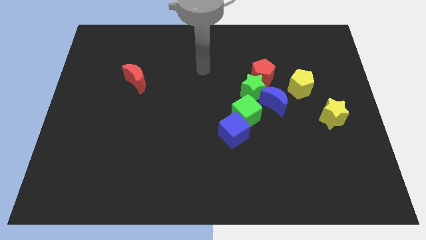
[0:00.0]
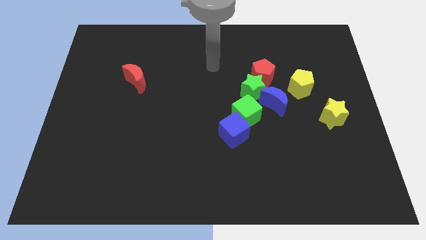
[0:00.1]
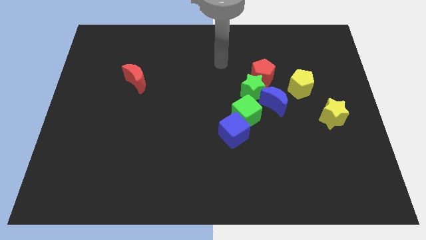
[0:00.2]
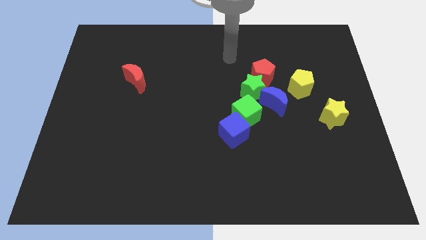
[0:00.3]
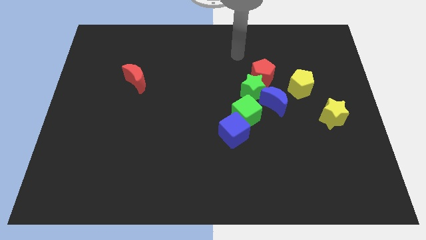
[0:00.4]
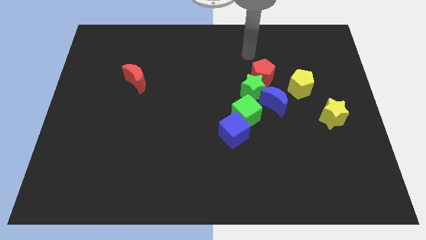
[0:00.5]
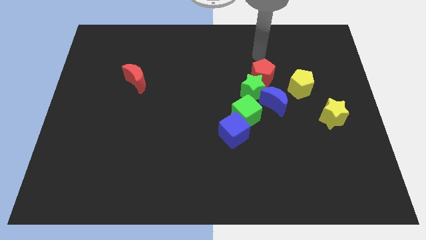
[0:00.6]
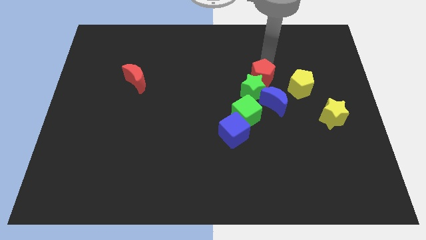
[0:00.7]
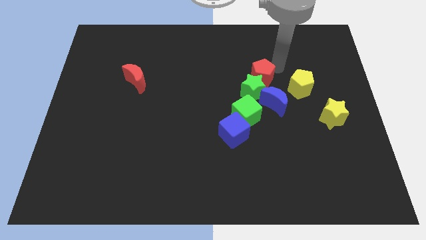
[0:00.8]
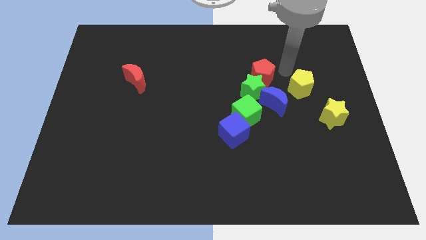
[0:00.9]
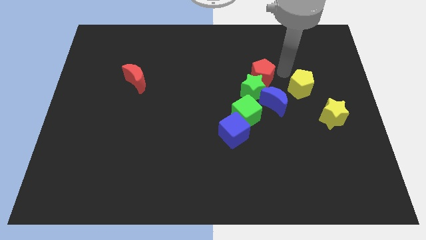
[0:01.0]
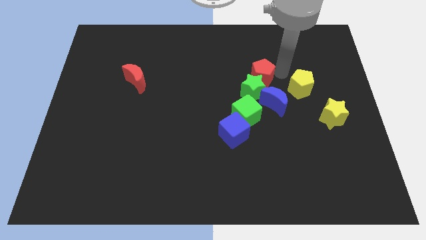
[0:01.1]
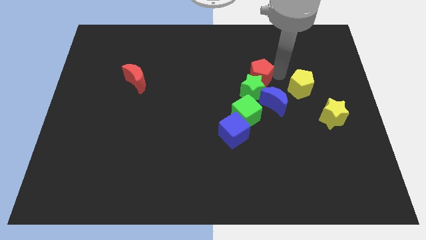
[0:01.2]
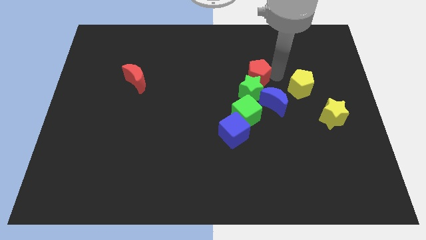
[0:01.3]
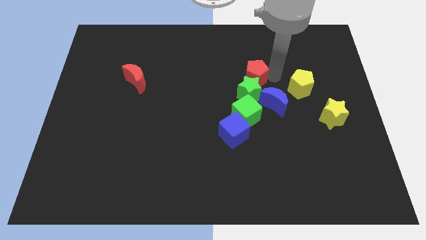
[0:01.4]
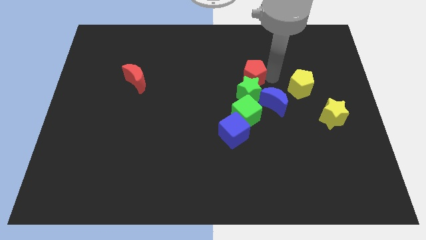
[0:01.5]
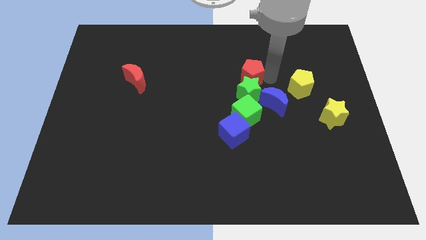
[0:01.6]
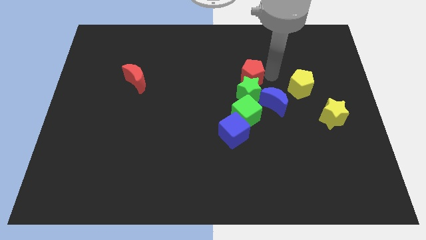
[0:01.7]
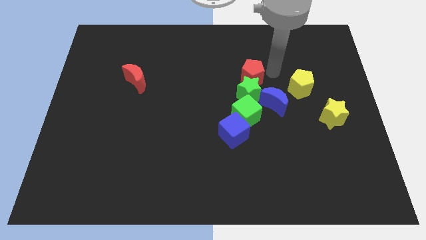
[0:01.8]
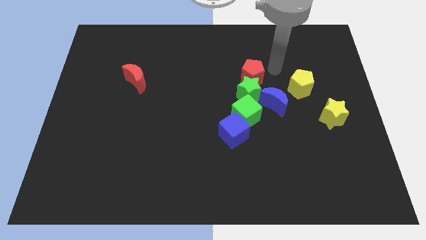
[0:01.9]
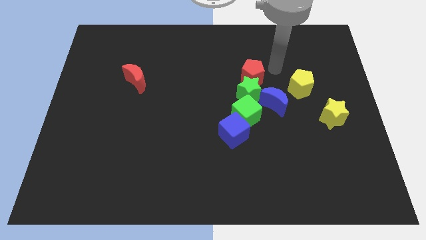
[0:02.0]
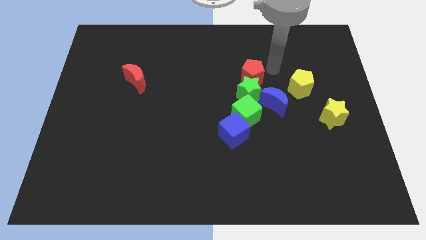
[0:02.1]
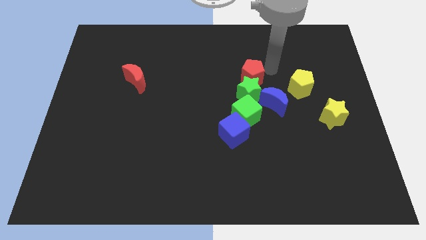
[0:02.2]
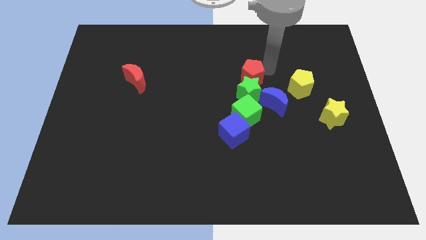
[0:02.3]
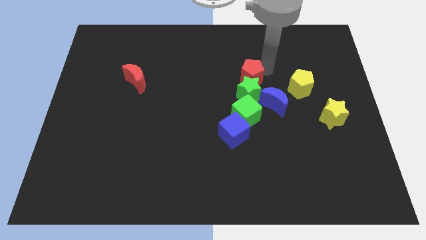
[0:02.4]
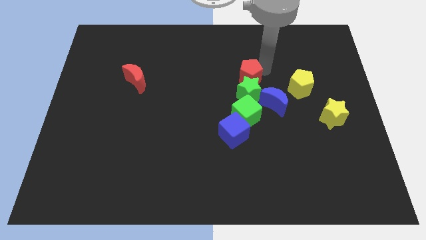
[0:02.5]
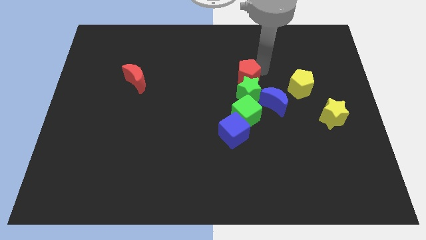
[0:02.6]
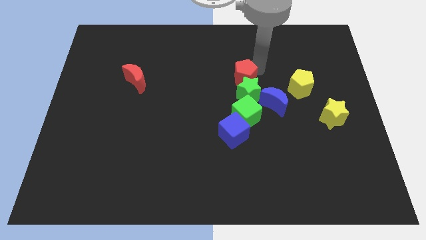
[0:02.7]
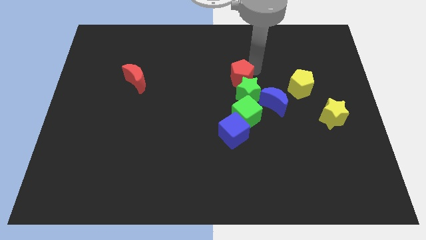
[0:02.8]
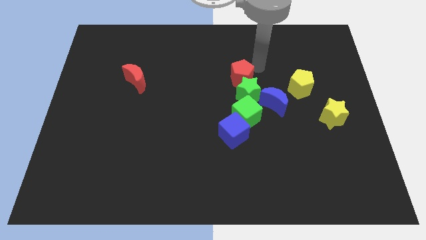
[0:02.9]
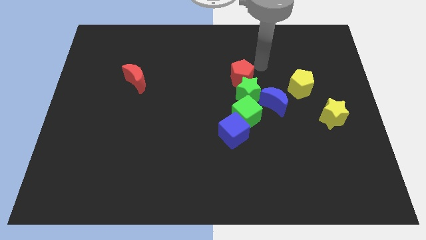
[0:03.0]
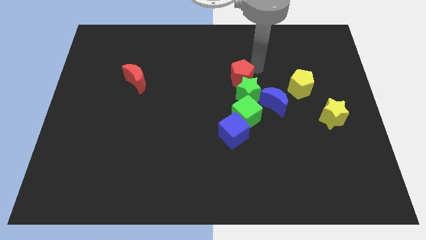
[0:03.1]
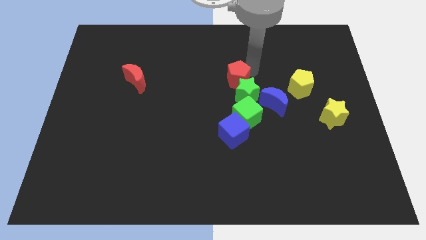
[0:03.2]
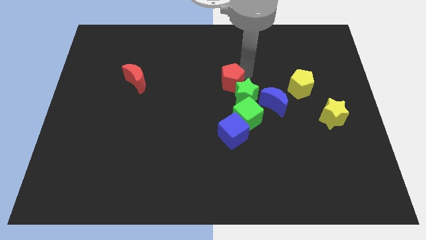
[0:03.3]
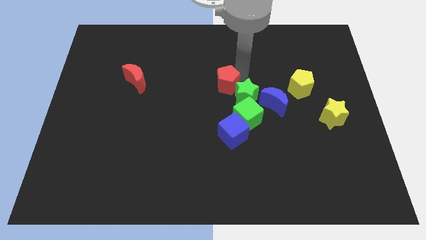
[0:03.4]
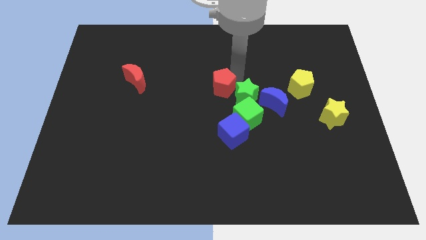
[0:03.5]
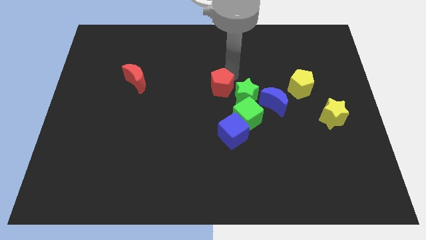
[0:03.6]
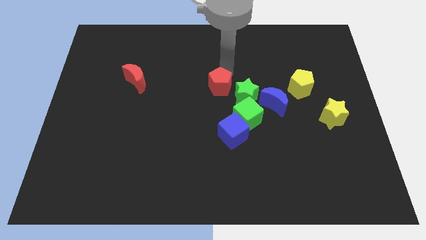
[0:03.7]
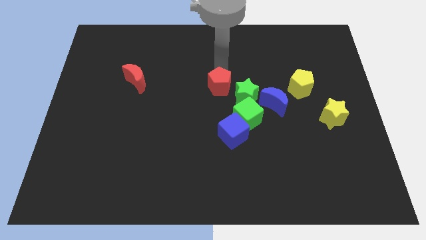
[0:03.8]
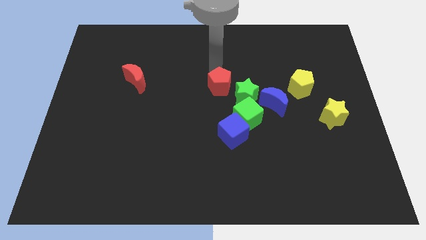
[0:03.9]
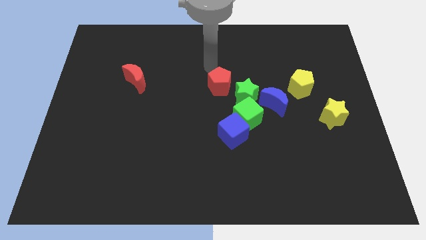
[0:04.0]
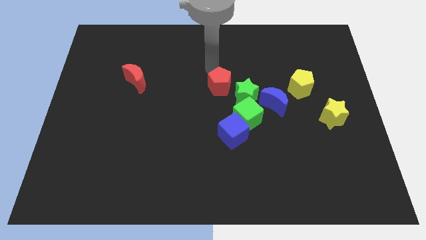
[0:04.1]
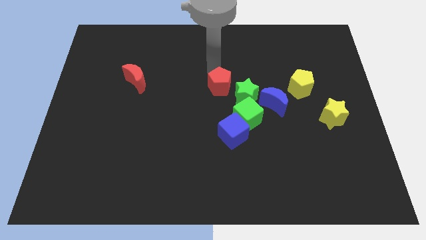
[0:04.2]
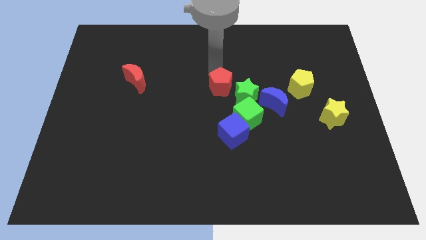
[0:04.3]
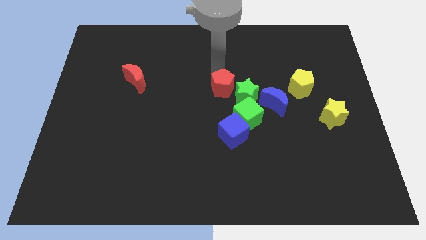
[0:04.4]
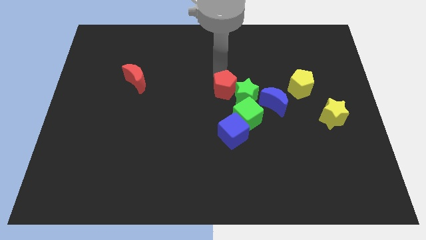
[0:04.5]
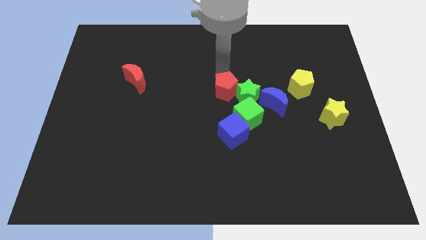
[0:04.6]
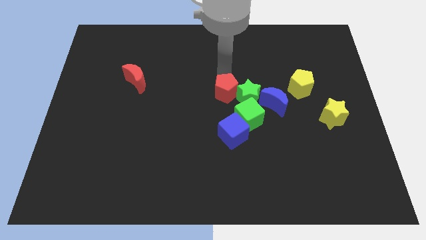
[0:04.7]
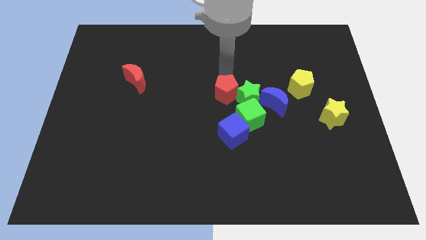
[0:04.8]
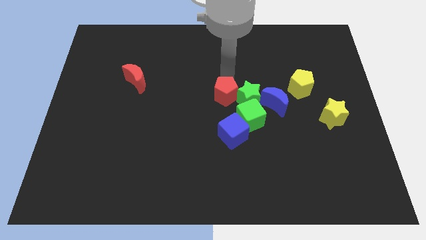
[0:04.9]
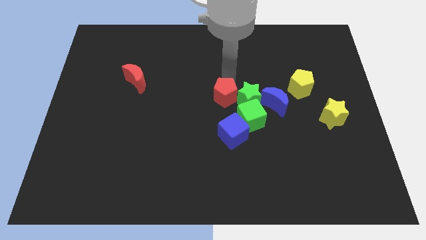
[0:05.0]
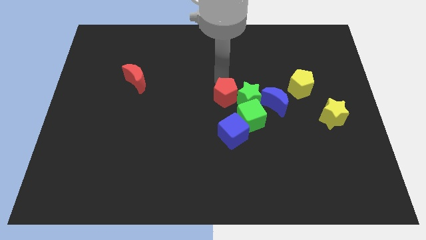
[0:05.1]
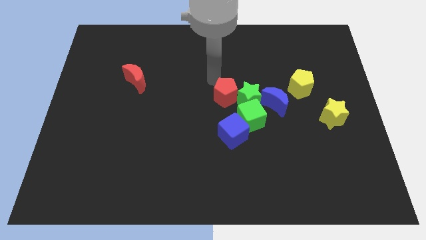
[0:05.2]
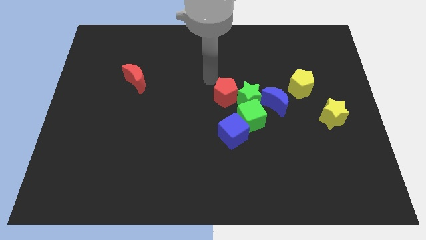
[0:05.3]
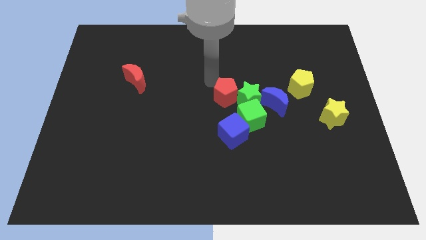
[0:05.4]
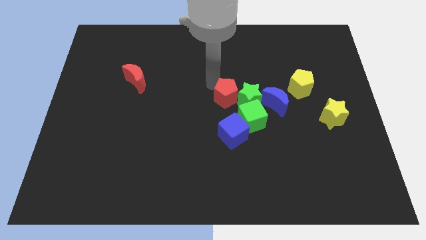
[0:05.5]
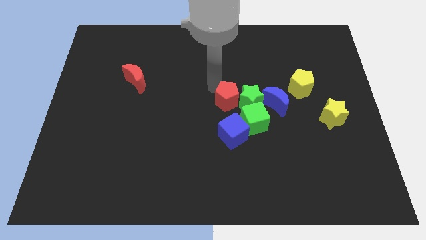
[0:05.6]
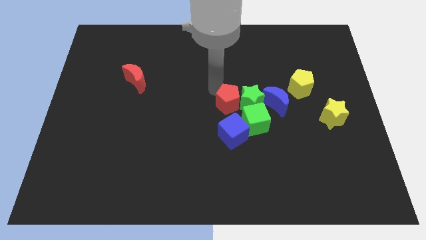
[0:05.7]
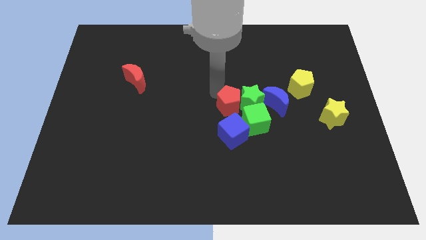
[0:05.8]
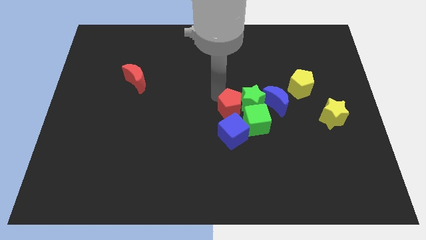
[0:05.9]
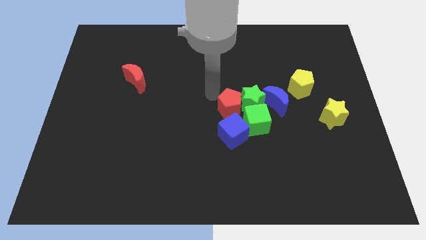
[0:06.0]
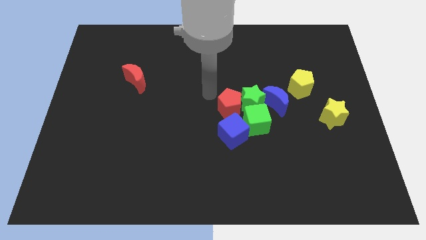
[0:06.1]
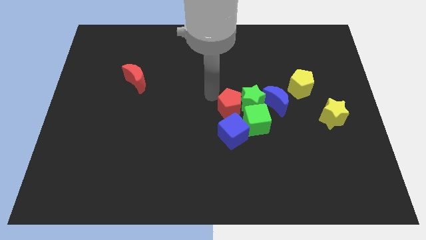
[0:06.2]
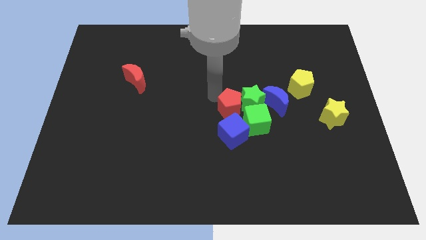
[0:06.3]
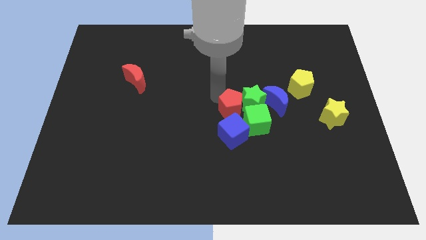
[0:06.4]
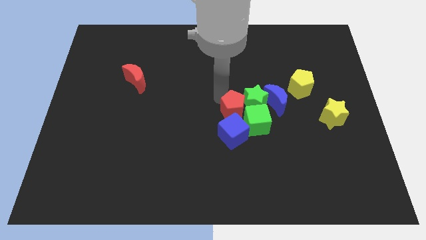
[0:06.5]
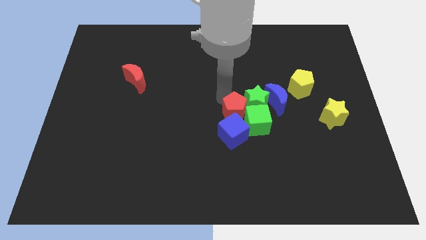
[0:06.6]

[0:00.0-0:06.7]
slide the red pentagon to the green cube

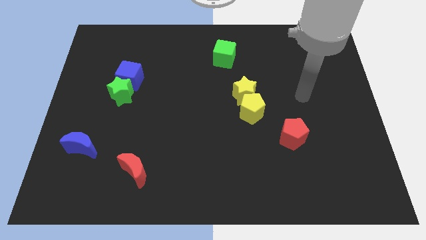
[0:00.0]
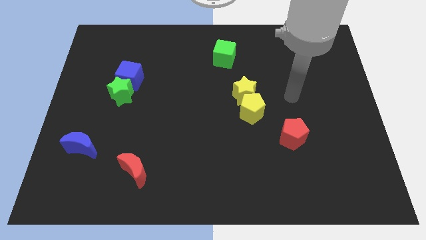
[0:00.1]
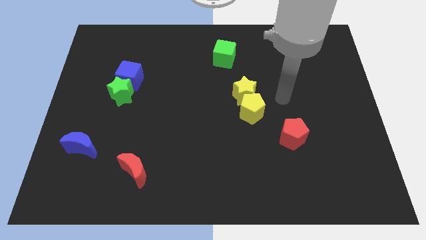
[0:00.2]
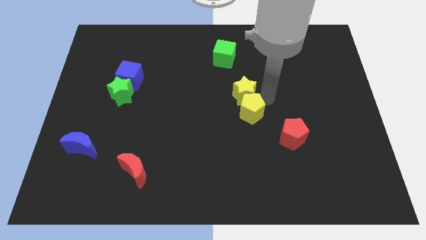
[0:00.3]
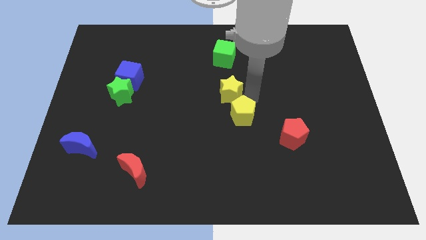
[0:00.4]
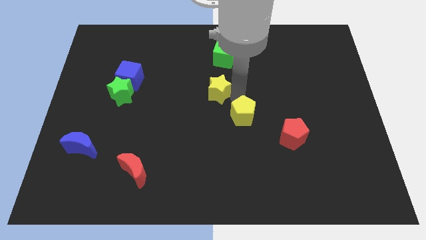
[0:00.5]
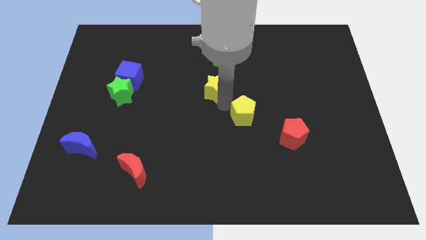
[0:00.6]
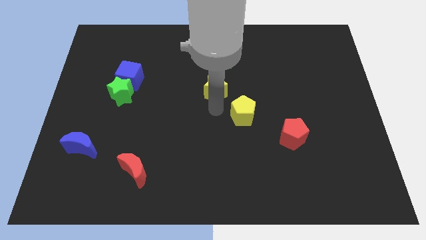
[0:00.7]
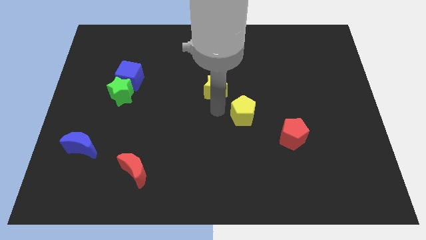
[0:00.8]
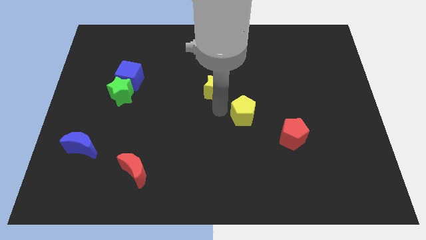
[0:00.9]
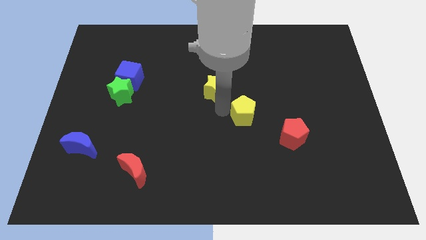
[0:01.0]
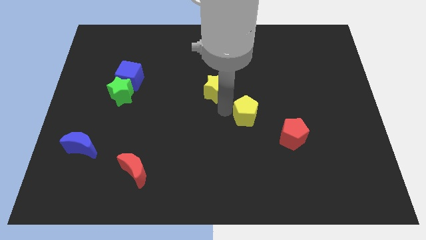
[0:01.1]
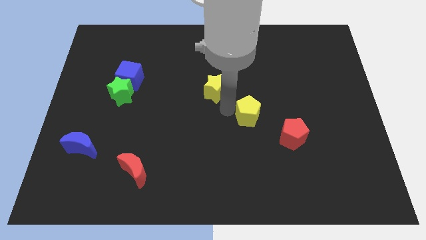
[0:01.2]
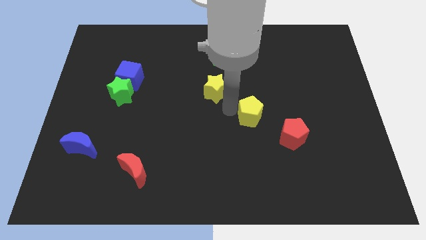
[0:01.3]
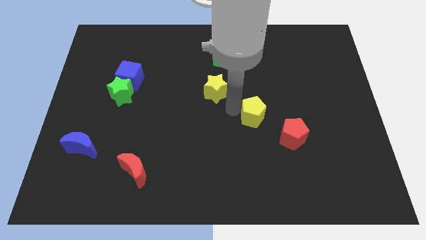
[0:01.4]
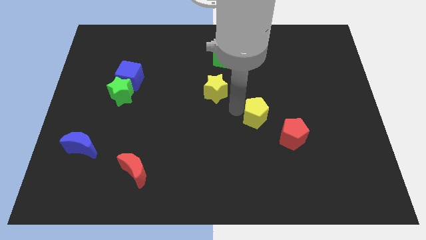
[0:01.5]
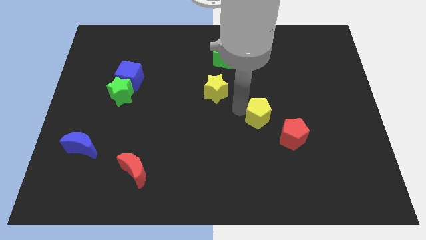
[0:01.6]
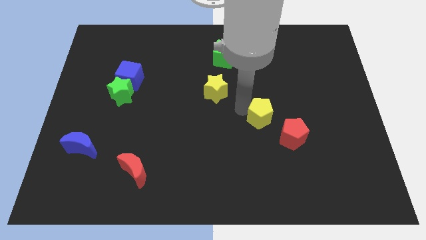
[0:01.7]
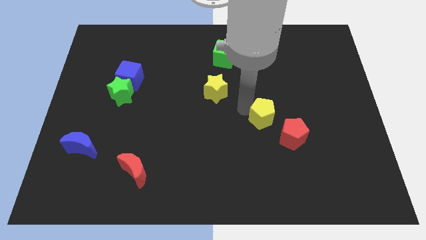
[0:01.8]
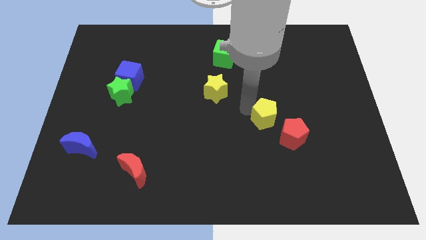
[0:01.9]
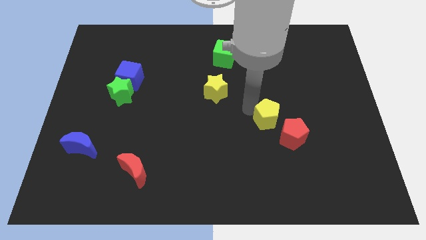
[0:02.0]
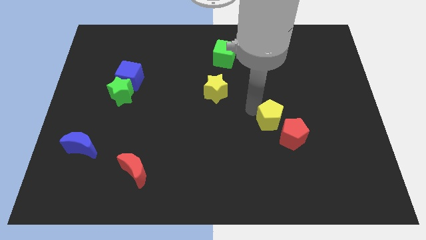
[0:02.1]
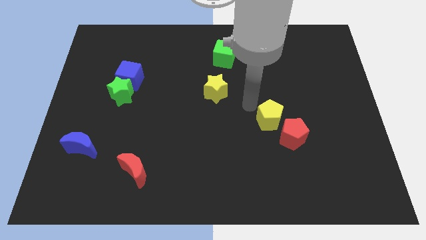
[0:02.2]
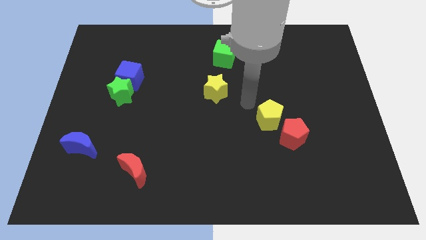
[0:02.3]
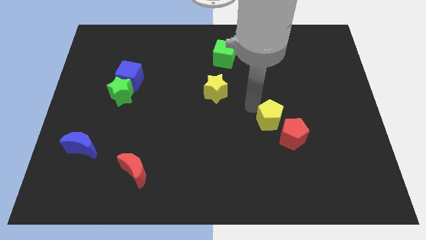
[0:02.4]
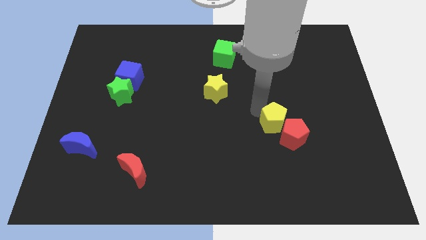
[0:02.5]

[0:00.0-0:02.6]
push the yellow pentagon towards the red pentagon
